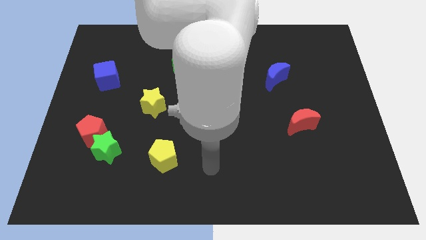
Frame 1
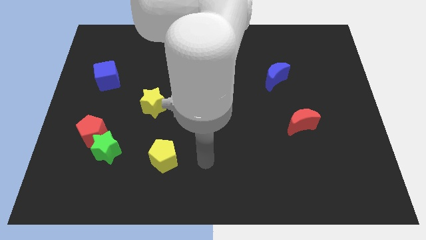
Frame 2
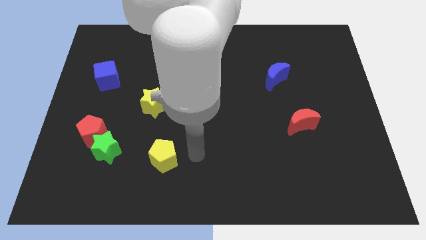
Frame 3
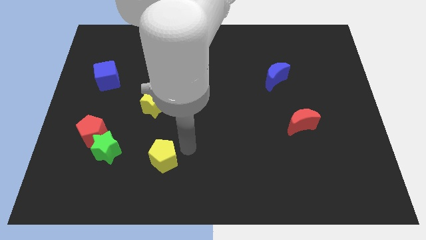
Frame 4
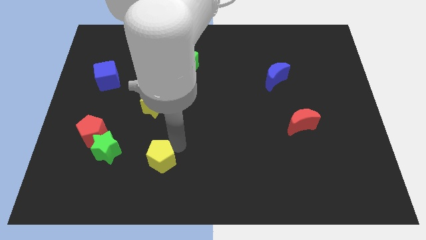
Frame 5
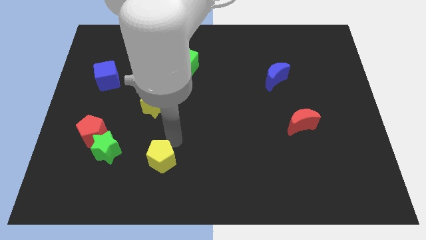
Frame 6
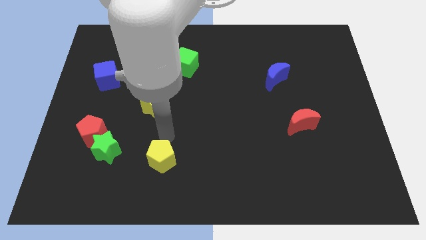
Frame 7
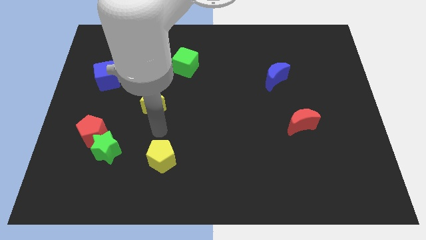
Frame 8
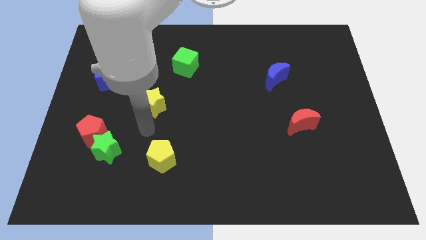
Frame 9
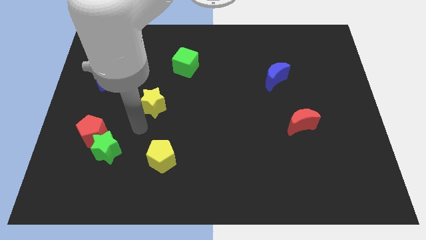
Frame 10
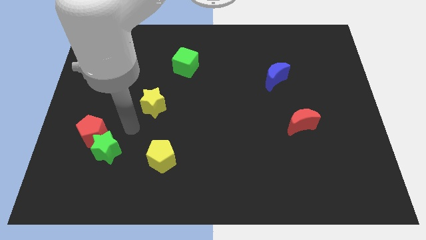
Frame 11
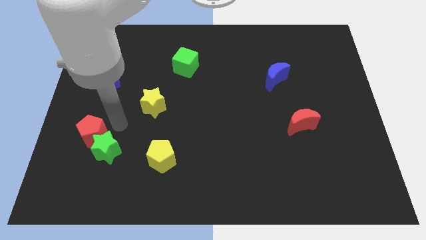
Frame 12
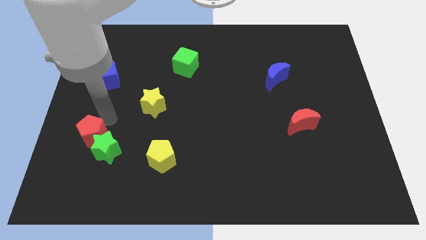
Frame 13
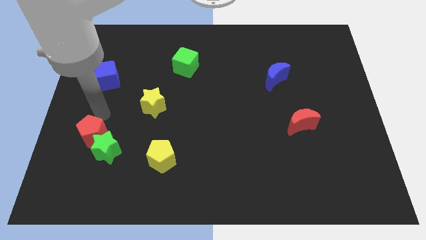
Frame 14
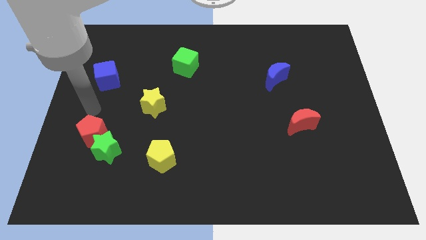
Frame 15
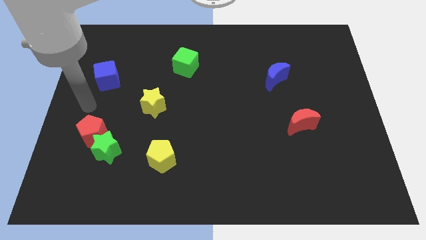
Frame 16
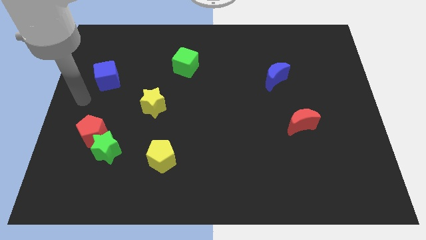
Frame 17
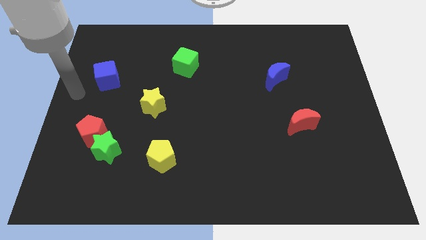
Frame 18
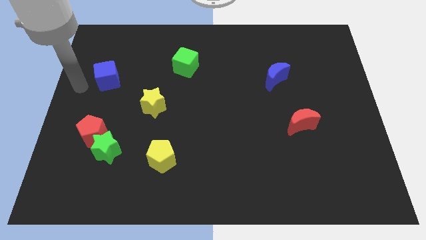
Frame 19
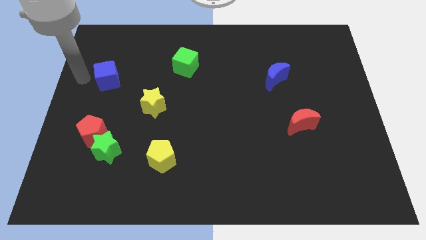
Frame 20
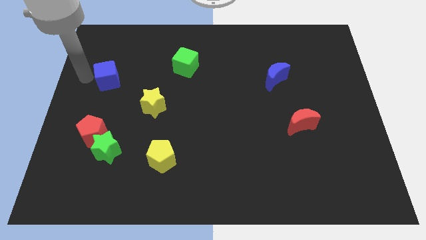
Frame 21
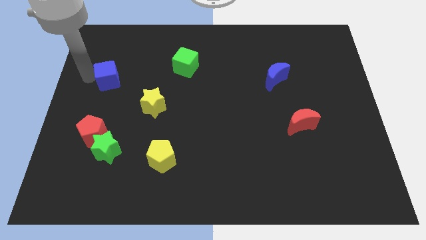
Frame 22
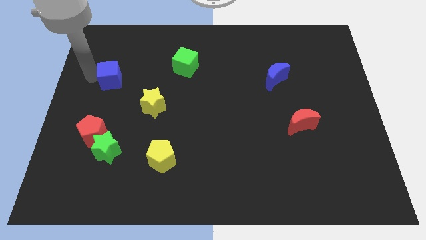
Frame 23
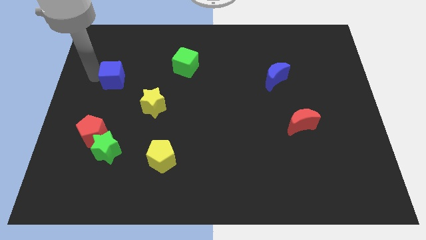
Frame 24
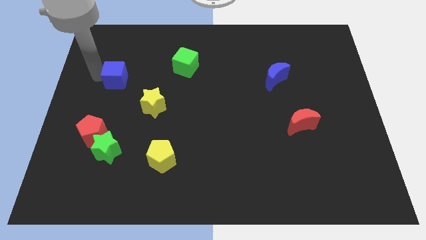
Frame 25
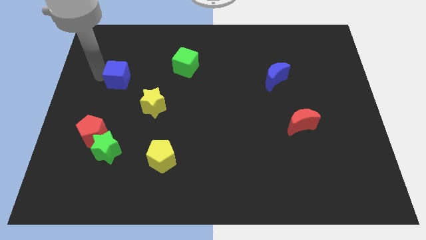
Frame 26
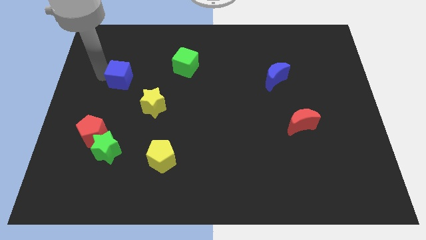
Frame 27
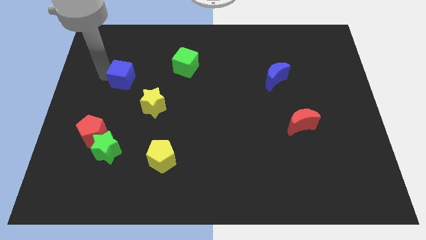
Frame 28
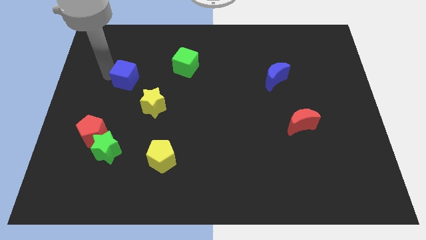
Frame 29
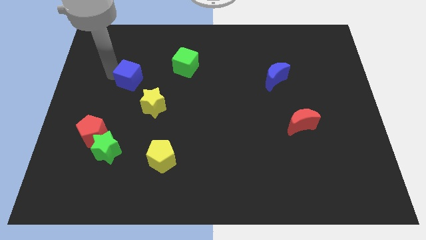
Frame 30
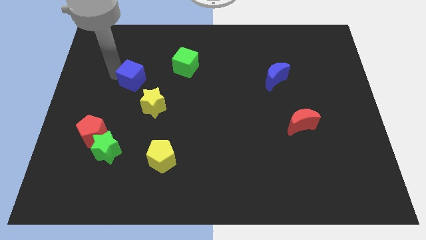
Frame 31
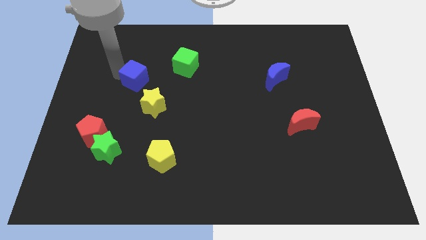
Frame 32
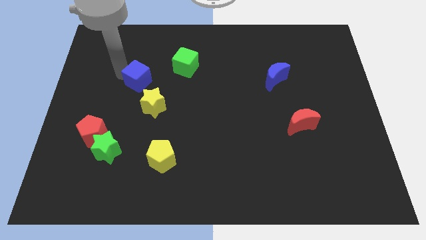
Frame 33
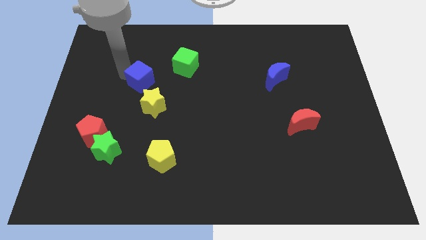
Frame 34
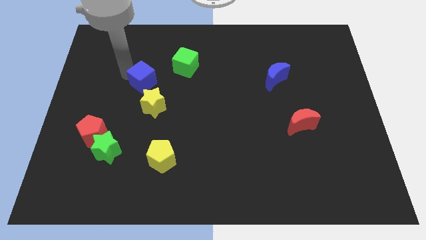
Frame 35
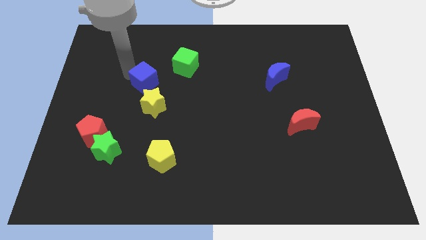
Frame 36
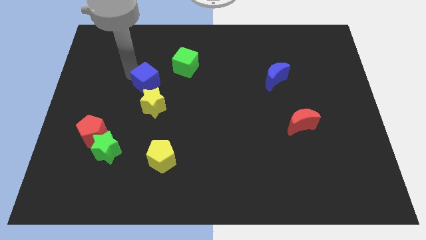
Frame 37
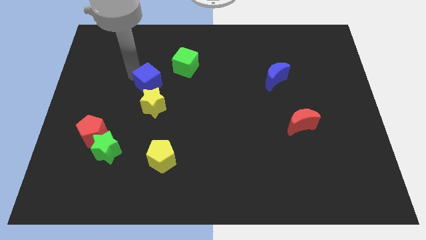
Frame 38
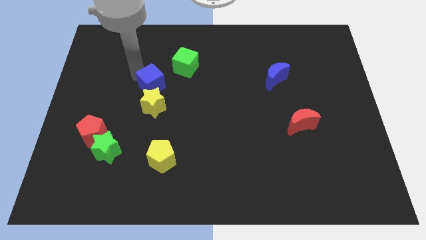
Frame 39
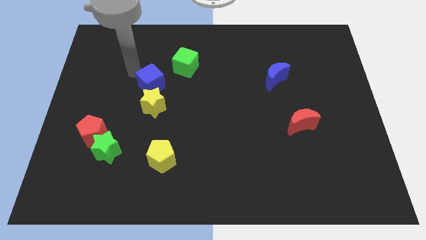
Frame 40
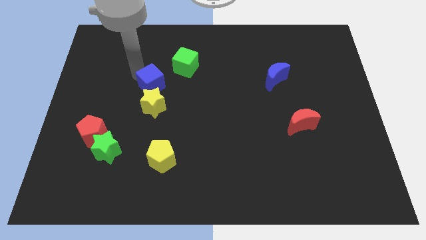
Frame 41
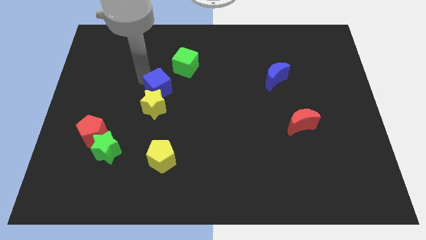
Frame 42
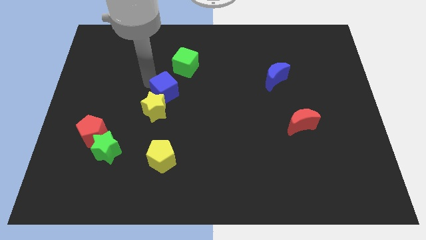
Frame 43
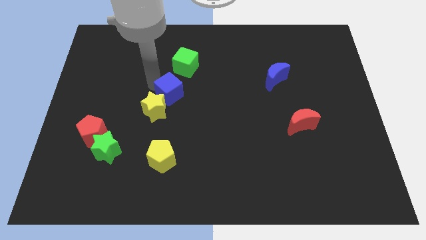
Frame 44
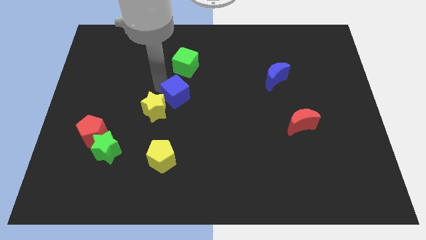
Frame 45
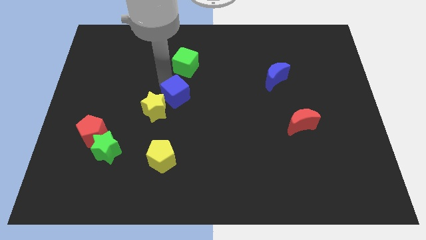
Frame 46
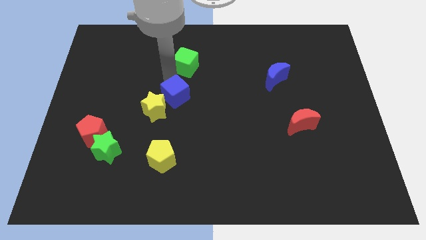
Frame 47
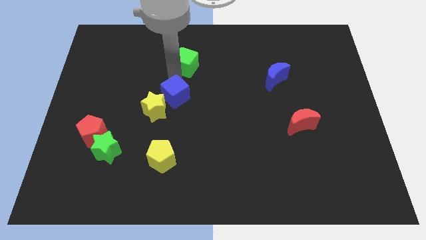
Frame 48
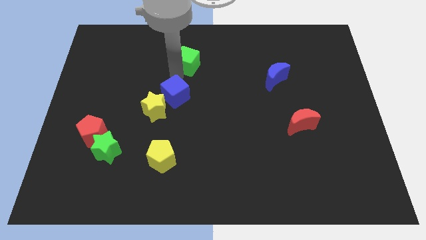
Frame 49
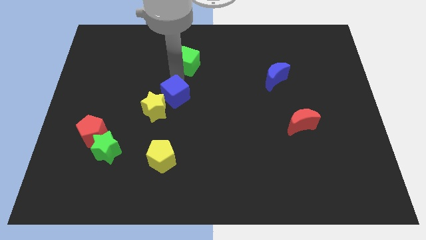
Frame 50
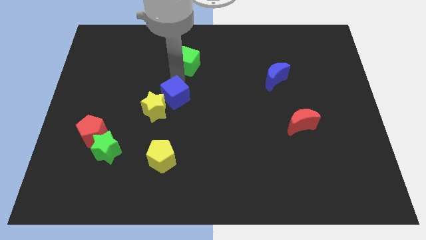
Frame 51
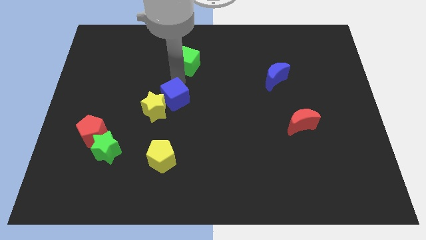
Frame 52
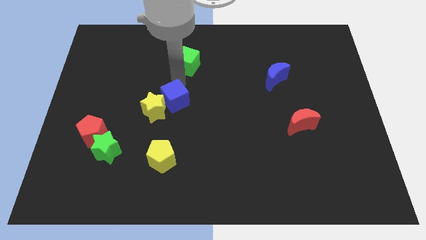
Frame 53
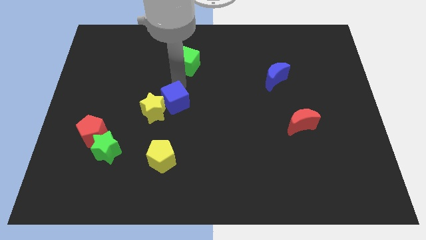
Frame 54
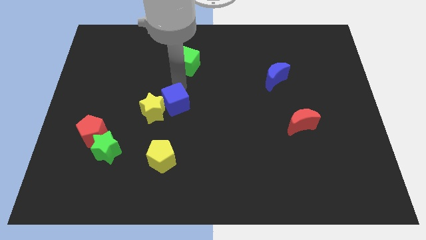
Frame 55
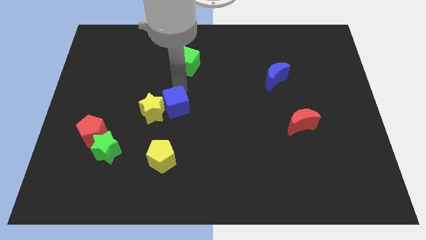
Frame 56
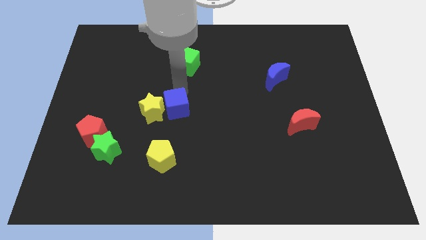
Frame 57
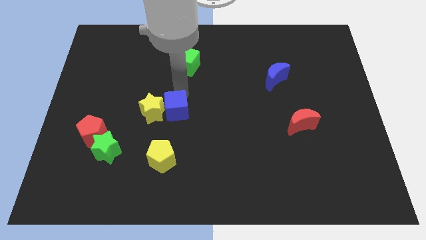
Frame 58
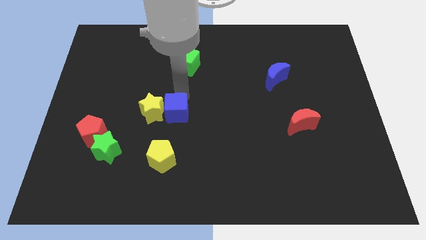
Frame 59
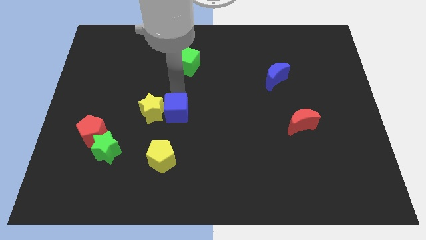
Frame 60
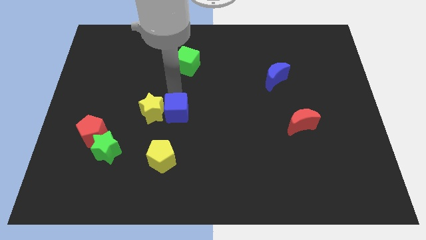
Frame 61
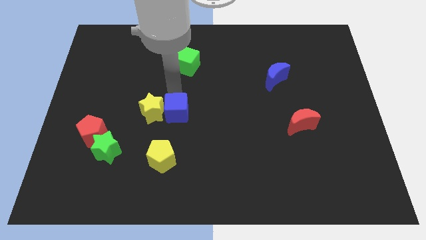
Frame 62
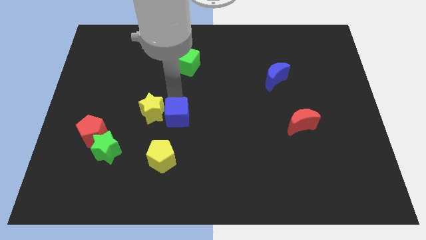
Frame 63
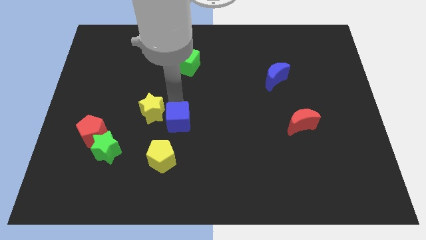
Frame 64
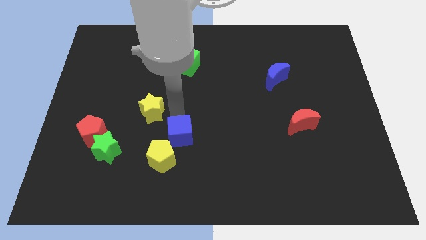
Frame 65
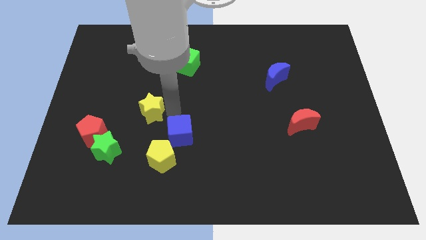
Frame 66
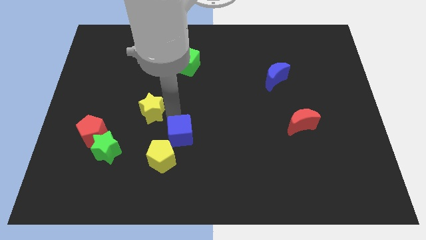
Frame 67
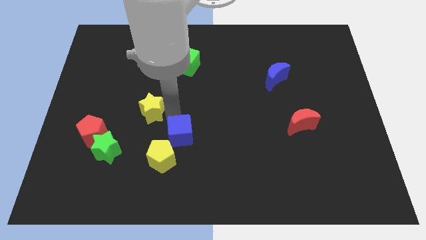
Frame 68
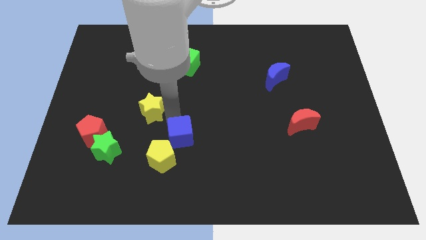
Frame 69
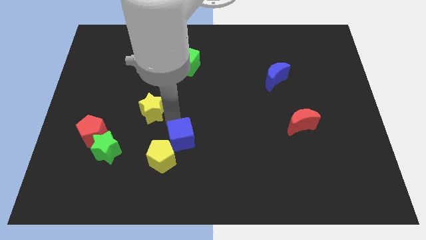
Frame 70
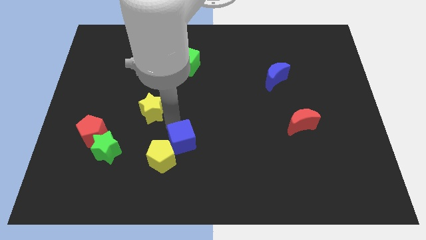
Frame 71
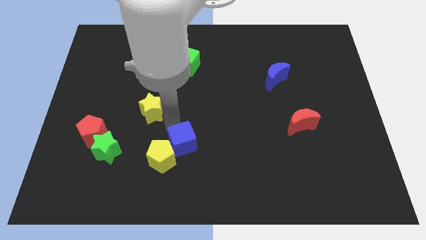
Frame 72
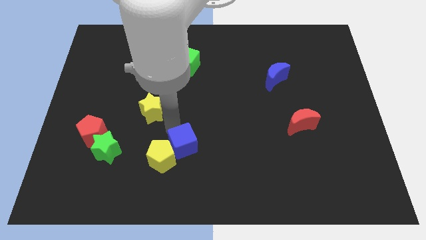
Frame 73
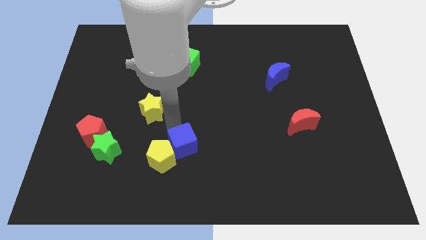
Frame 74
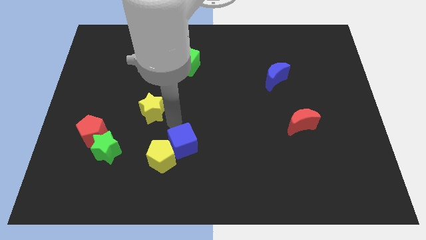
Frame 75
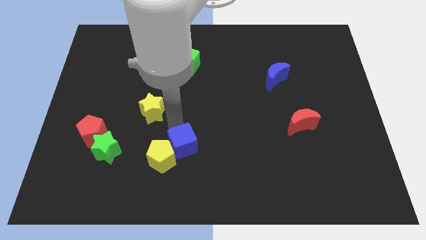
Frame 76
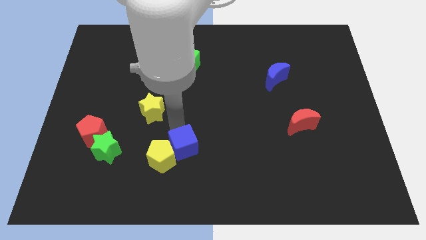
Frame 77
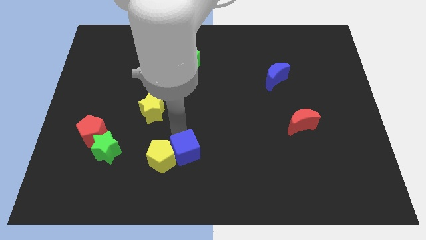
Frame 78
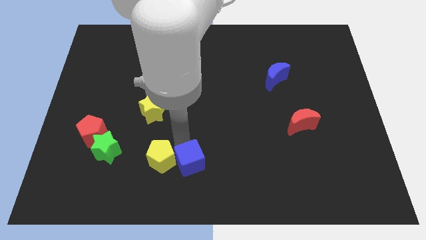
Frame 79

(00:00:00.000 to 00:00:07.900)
push the blue cube to the bottom
